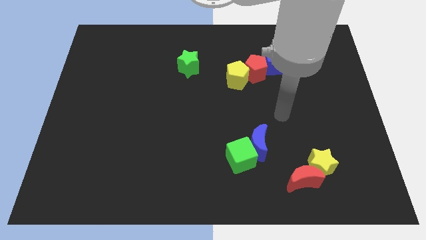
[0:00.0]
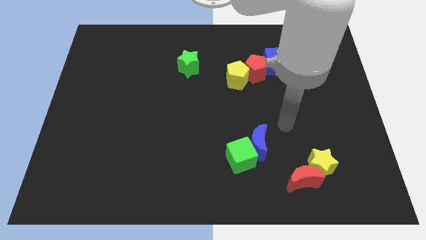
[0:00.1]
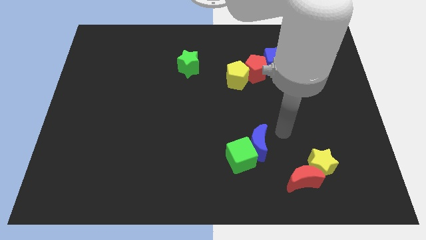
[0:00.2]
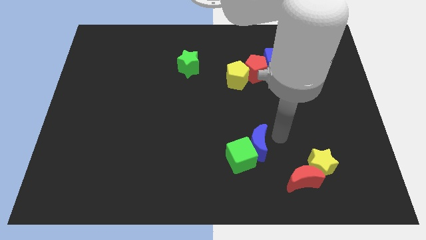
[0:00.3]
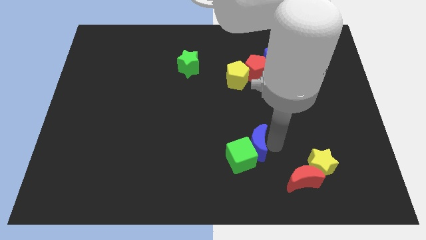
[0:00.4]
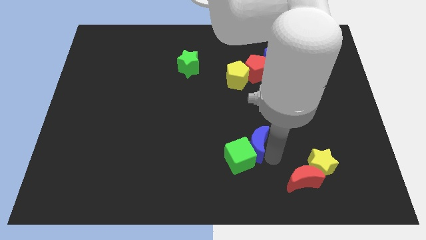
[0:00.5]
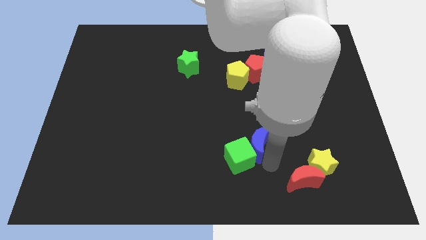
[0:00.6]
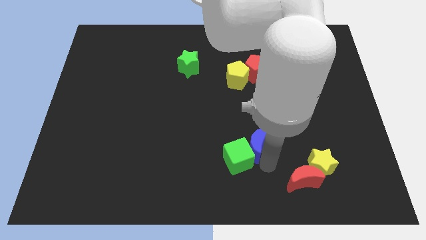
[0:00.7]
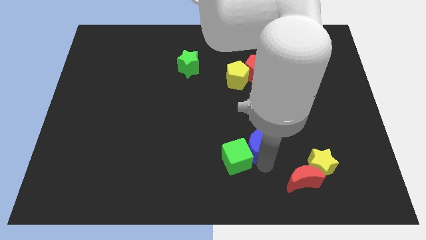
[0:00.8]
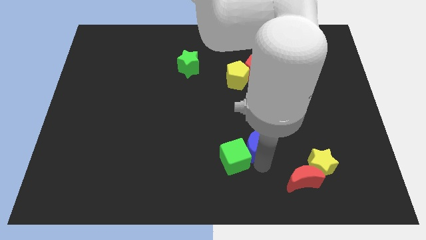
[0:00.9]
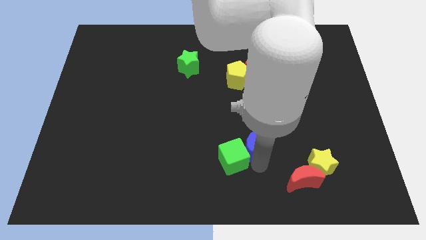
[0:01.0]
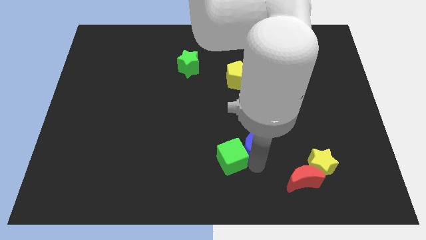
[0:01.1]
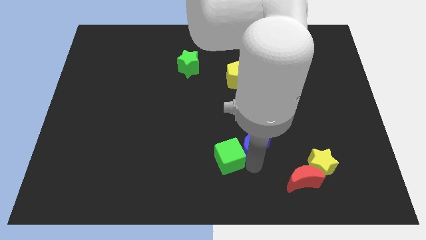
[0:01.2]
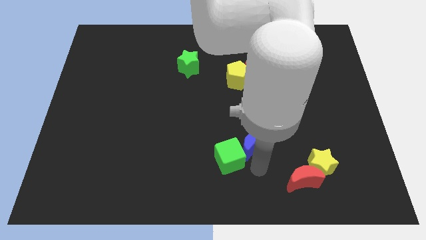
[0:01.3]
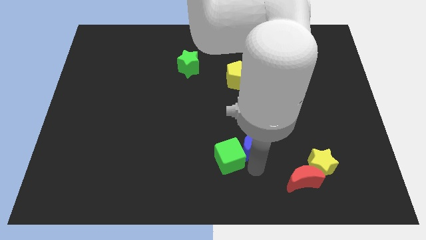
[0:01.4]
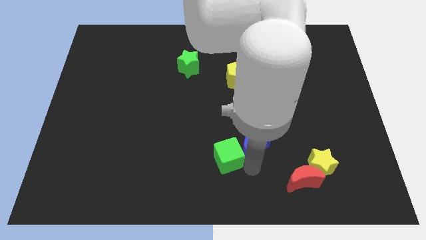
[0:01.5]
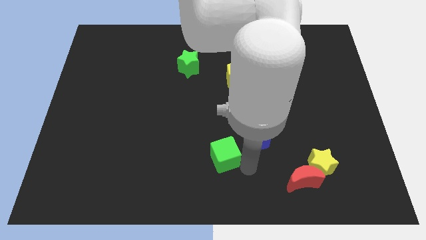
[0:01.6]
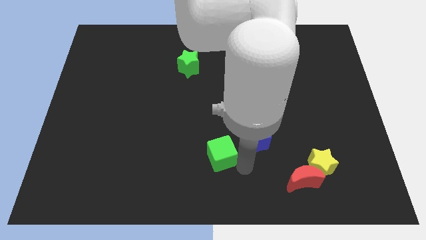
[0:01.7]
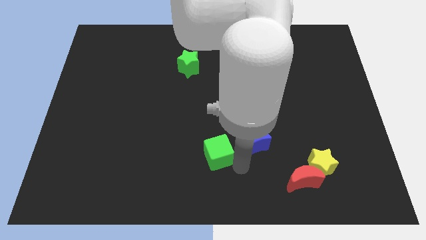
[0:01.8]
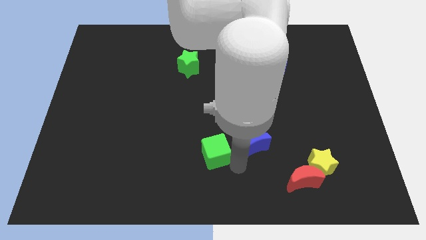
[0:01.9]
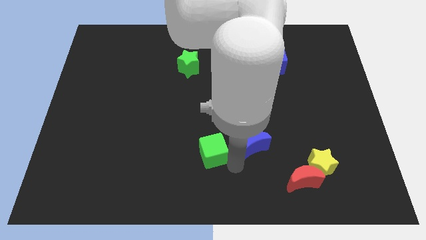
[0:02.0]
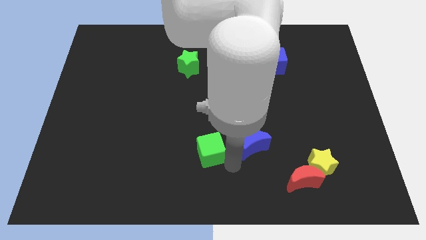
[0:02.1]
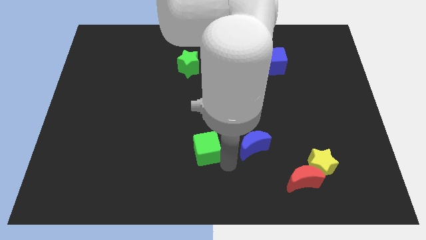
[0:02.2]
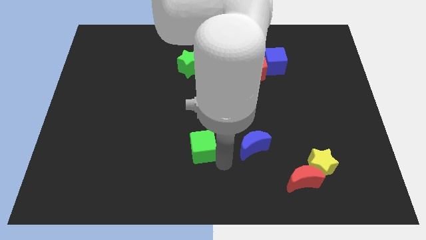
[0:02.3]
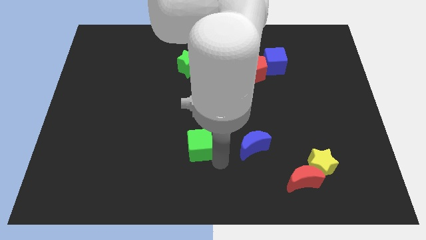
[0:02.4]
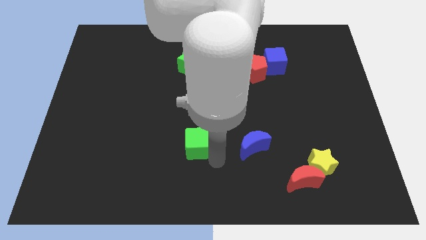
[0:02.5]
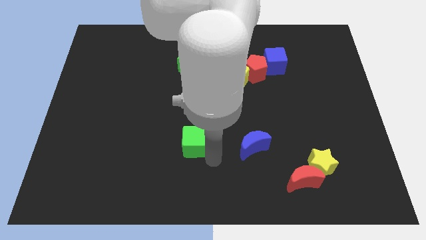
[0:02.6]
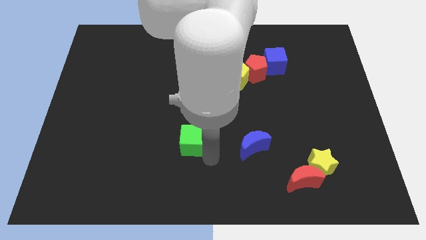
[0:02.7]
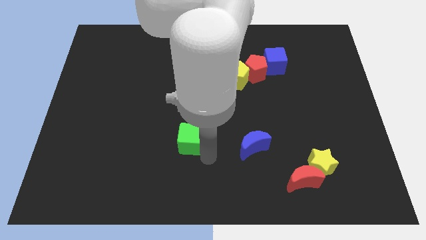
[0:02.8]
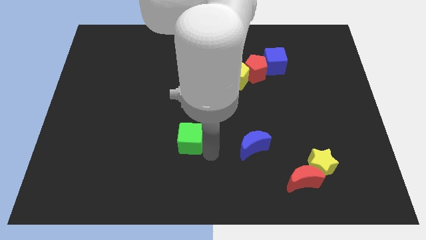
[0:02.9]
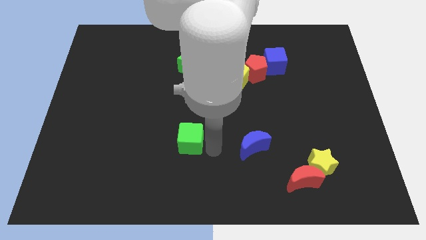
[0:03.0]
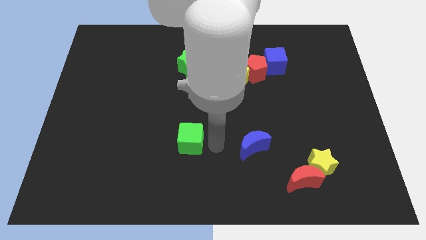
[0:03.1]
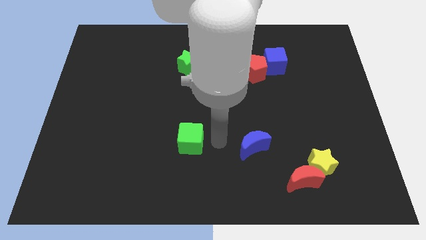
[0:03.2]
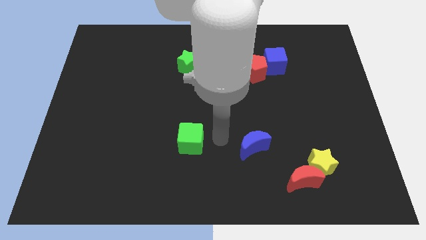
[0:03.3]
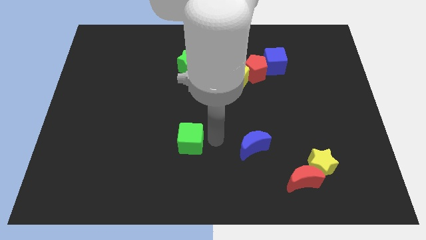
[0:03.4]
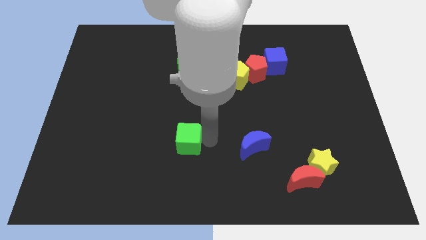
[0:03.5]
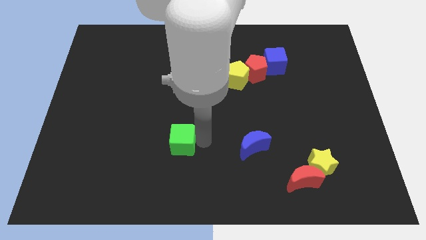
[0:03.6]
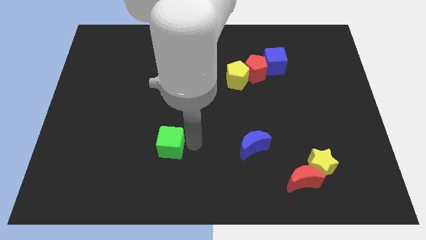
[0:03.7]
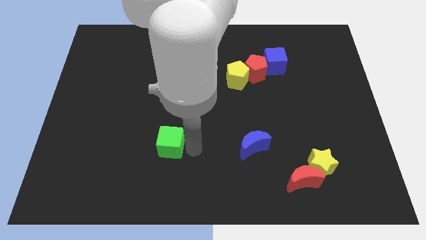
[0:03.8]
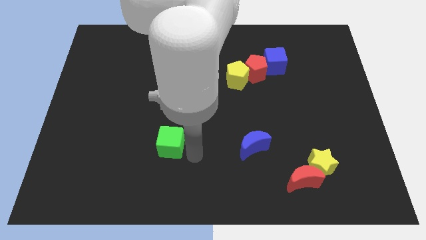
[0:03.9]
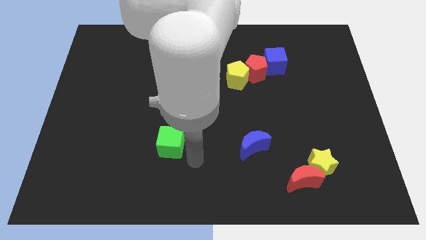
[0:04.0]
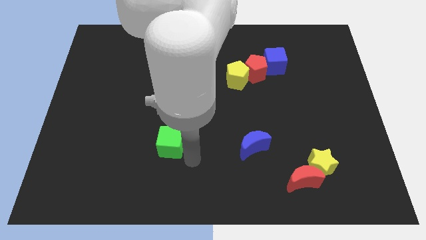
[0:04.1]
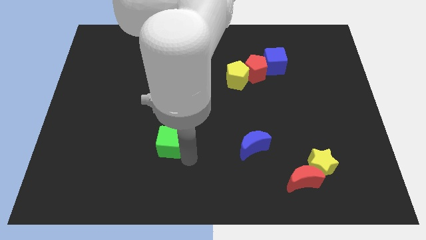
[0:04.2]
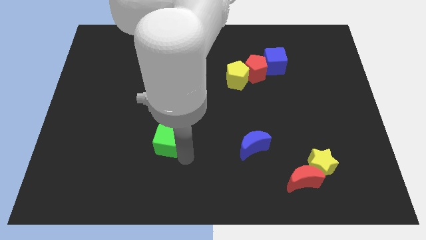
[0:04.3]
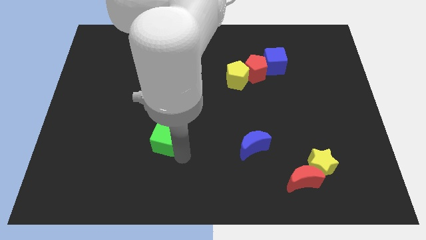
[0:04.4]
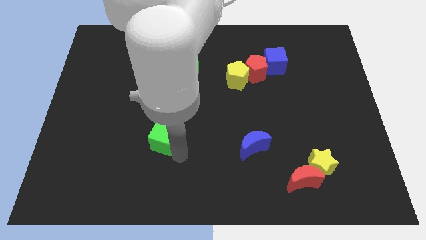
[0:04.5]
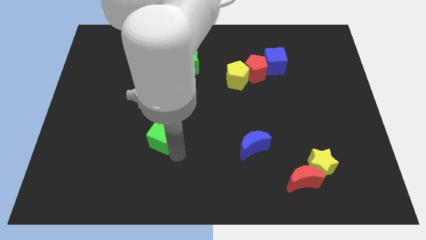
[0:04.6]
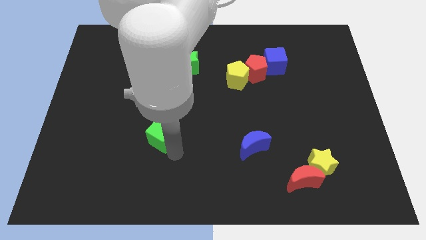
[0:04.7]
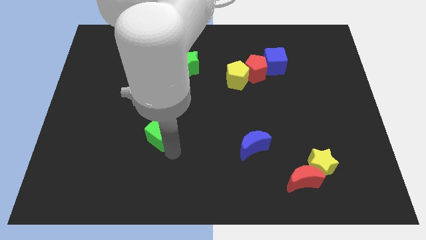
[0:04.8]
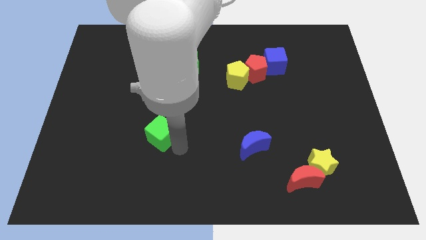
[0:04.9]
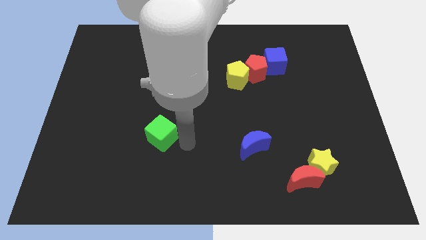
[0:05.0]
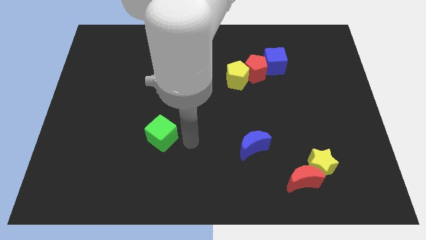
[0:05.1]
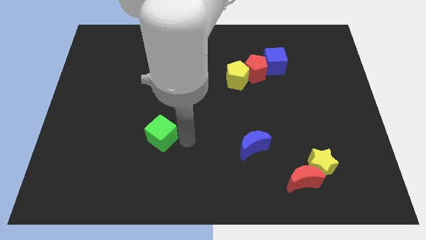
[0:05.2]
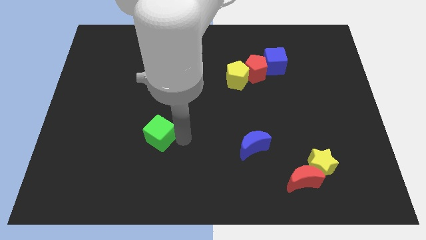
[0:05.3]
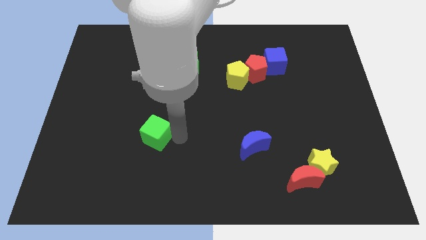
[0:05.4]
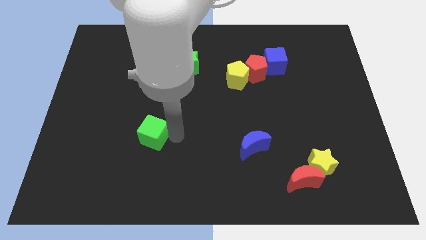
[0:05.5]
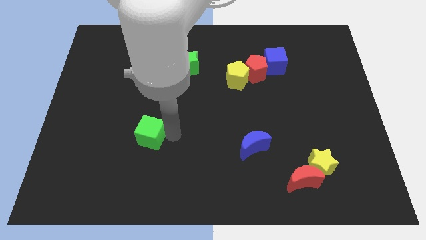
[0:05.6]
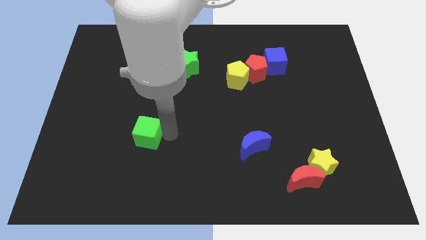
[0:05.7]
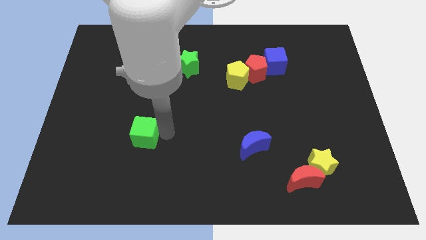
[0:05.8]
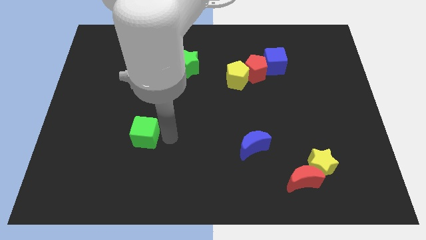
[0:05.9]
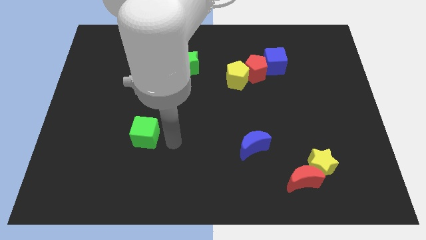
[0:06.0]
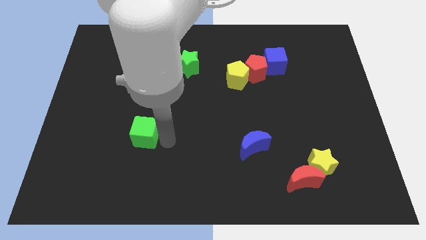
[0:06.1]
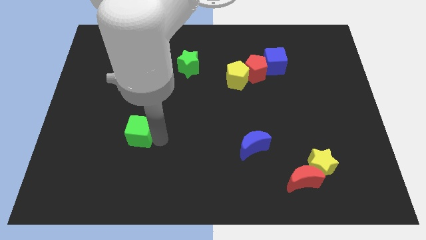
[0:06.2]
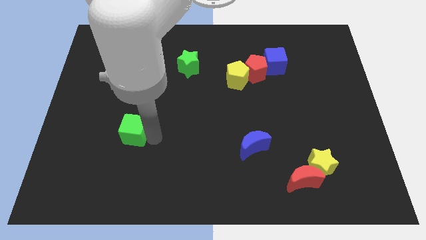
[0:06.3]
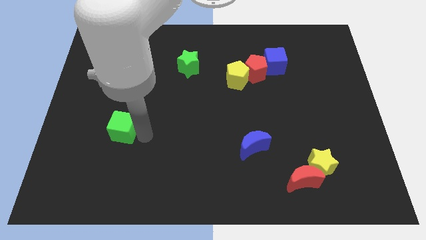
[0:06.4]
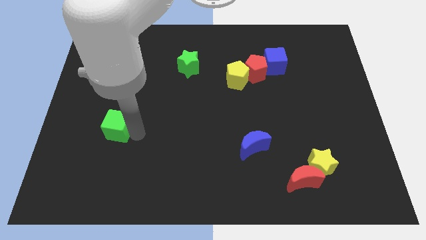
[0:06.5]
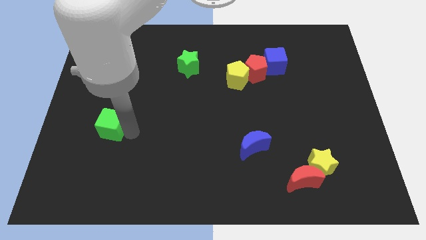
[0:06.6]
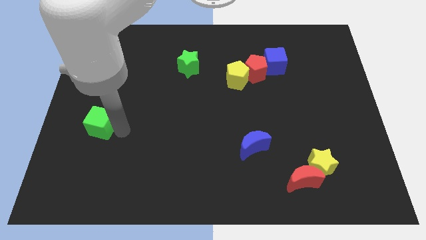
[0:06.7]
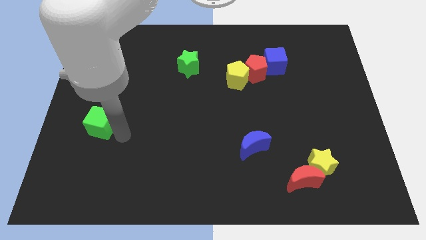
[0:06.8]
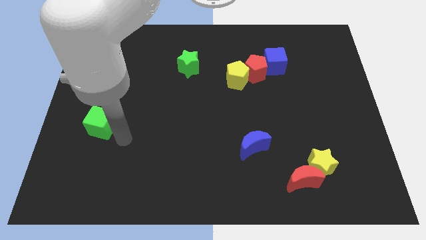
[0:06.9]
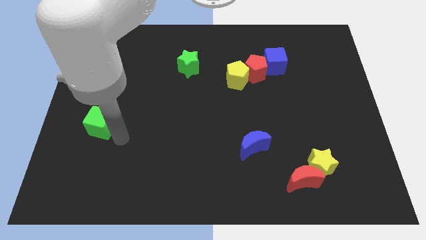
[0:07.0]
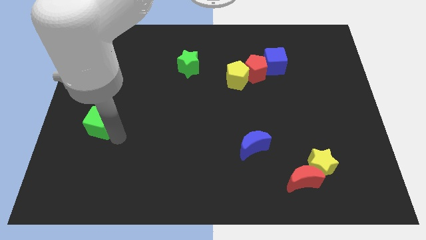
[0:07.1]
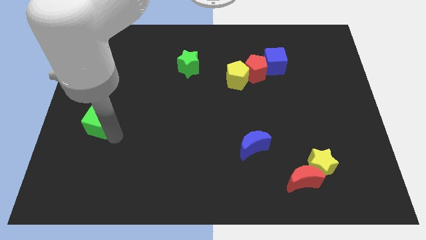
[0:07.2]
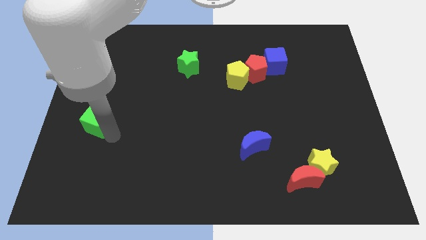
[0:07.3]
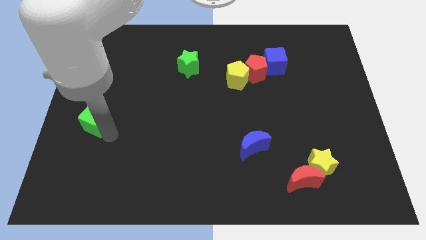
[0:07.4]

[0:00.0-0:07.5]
slide the green cube to the left side of the board
